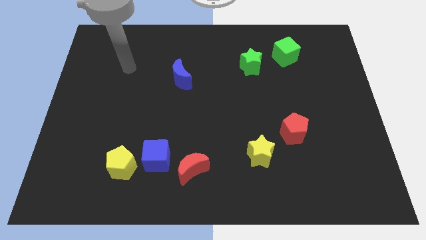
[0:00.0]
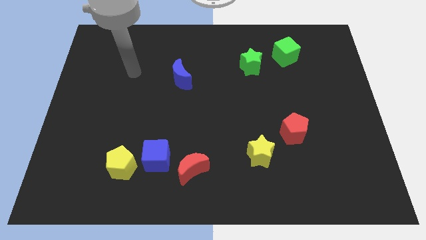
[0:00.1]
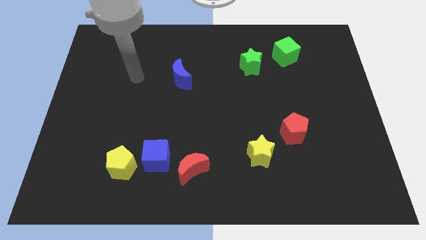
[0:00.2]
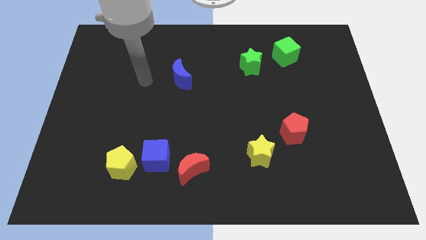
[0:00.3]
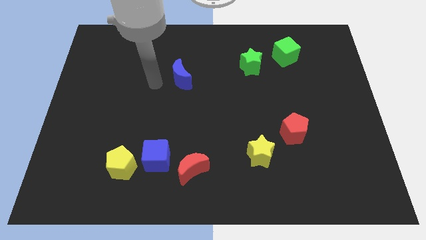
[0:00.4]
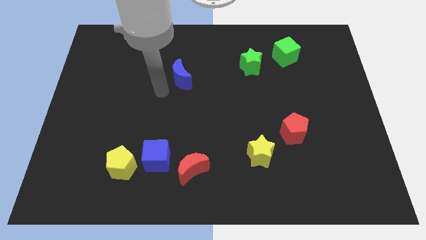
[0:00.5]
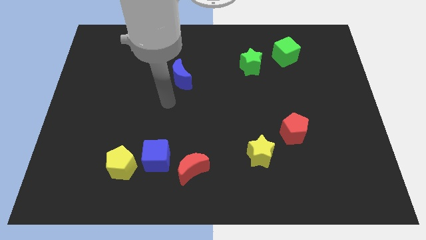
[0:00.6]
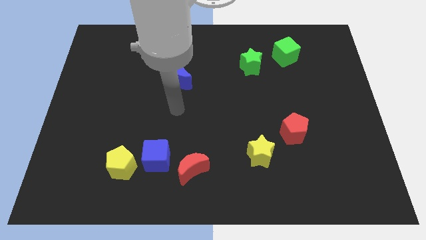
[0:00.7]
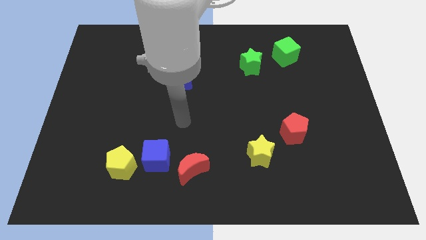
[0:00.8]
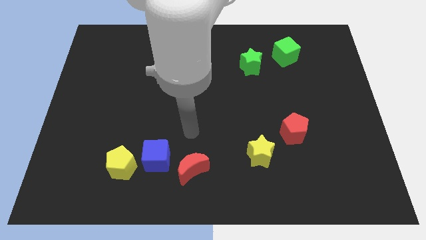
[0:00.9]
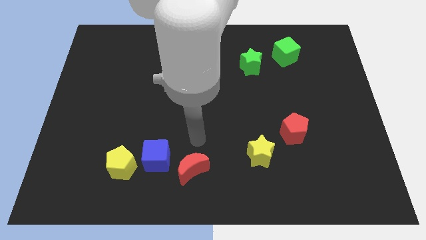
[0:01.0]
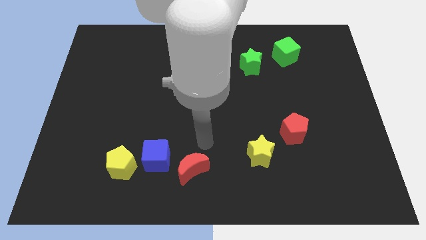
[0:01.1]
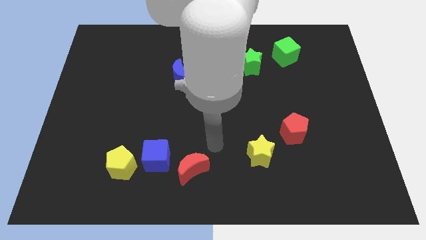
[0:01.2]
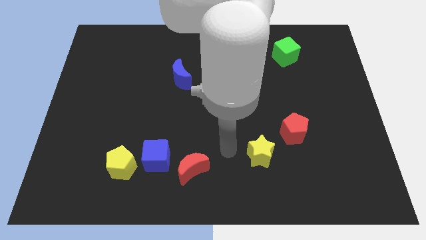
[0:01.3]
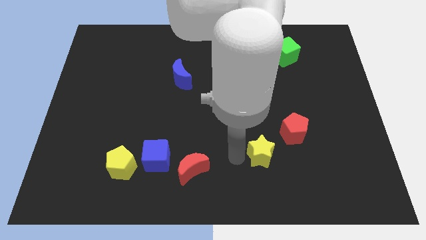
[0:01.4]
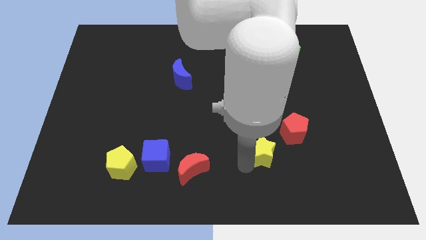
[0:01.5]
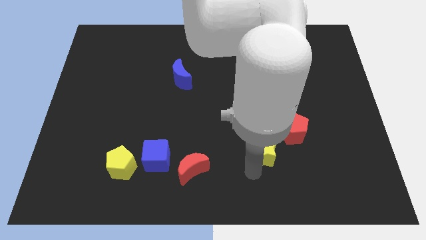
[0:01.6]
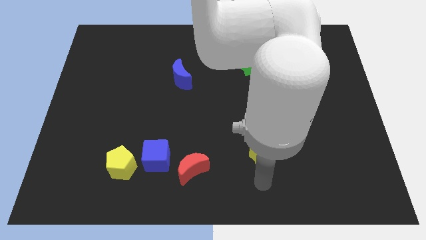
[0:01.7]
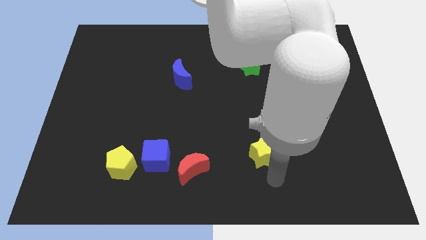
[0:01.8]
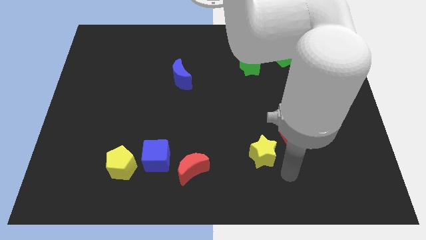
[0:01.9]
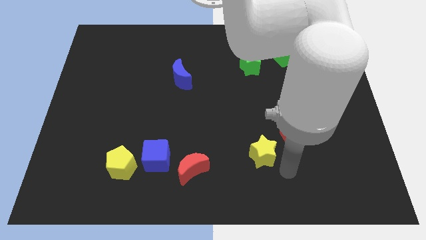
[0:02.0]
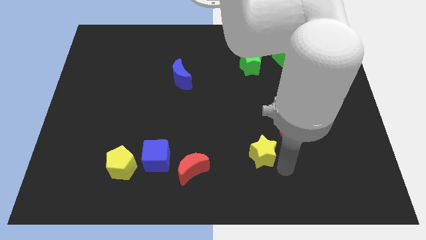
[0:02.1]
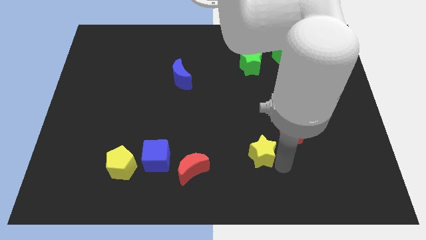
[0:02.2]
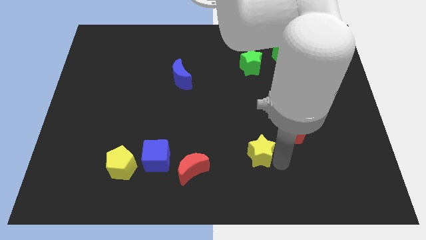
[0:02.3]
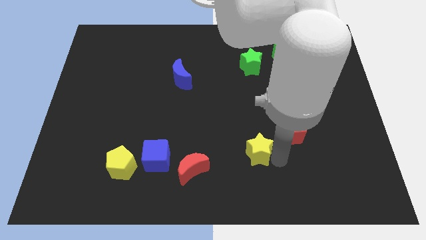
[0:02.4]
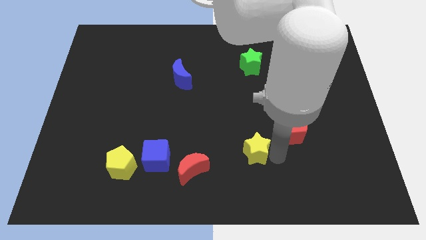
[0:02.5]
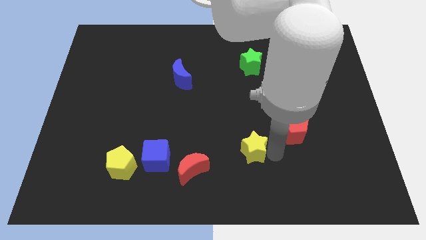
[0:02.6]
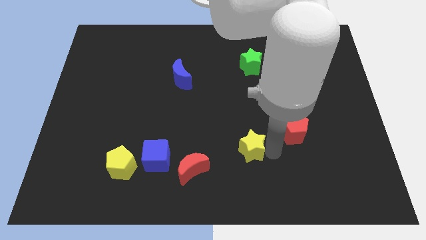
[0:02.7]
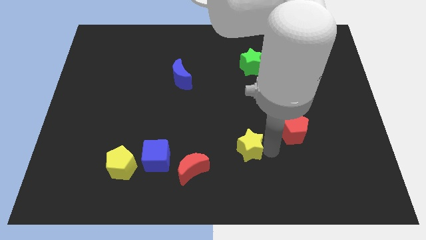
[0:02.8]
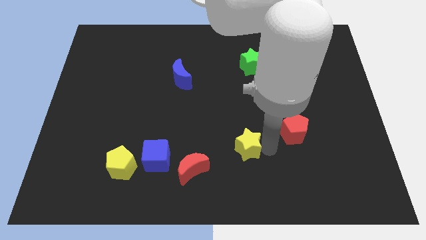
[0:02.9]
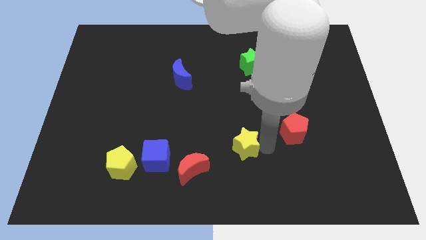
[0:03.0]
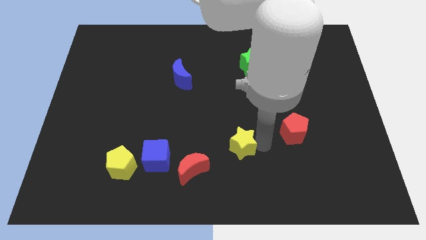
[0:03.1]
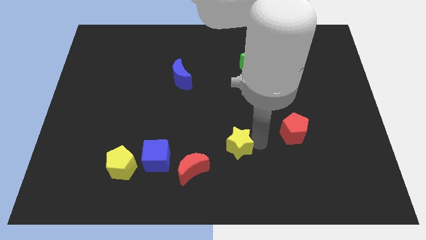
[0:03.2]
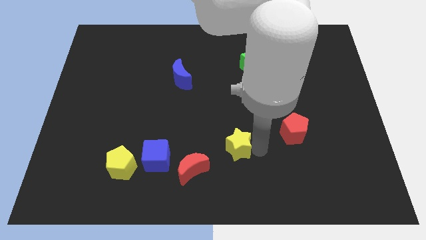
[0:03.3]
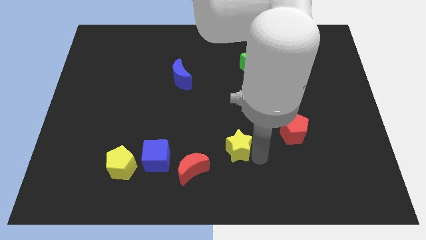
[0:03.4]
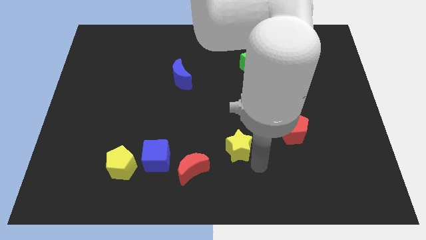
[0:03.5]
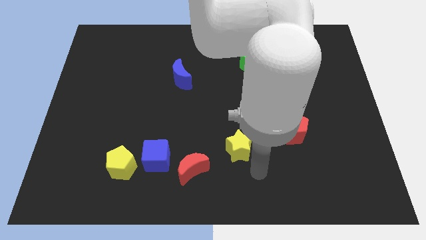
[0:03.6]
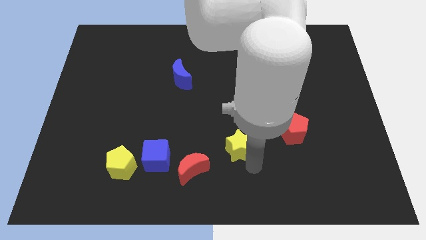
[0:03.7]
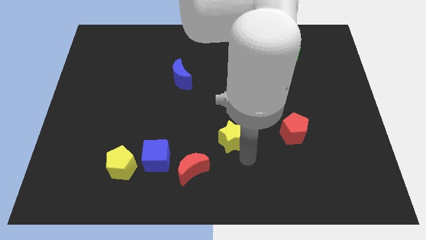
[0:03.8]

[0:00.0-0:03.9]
slightly move the yellow star upwards and left

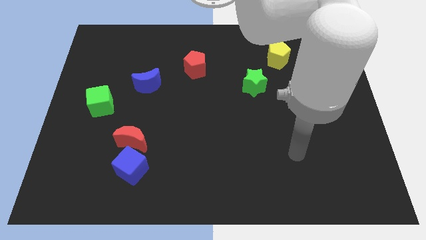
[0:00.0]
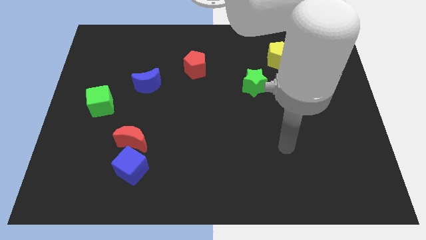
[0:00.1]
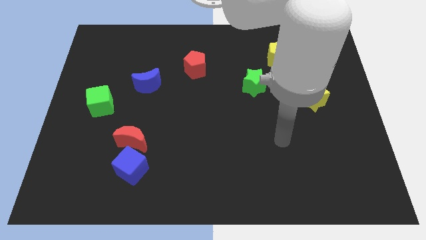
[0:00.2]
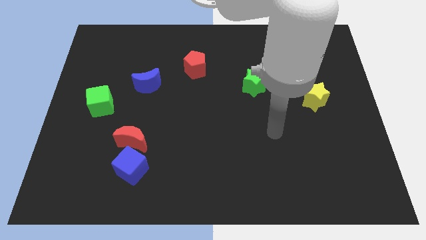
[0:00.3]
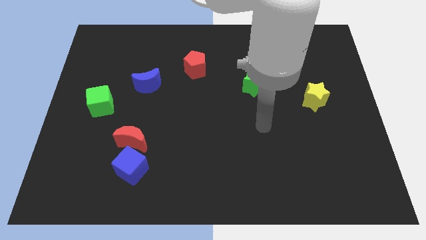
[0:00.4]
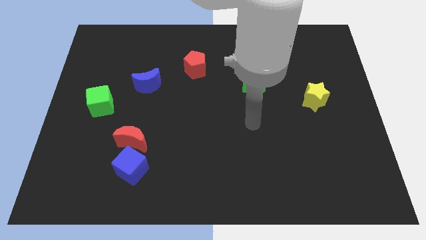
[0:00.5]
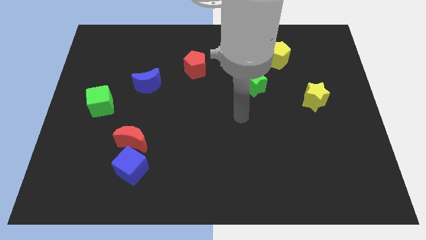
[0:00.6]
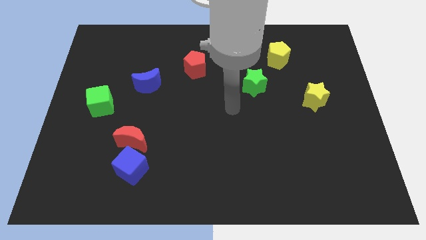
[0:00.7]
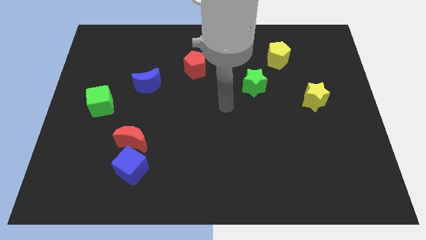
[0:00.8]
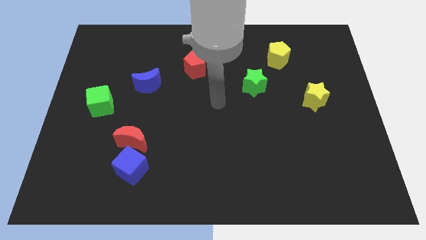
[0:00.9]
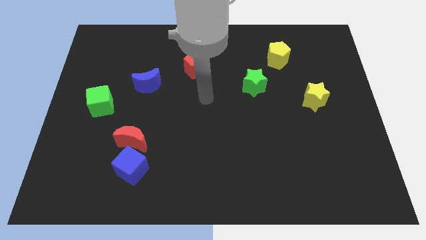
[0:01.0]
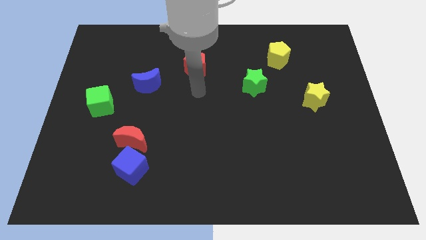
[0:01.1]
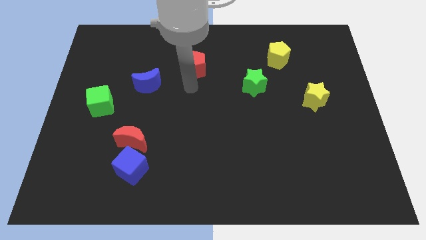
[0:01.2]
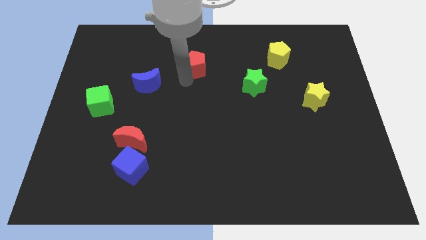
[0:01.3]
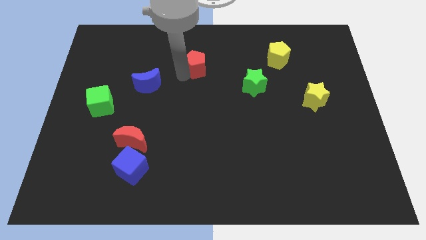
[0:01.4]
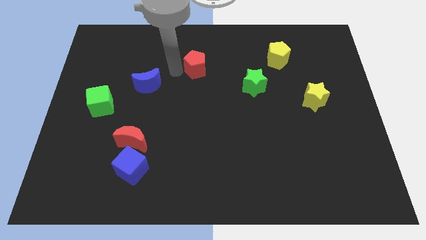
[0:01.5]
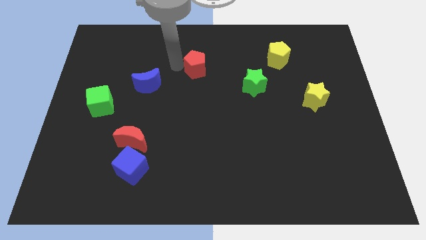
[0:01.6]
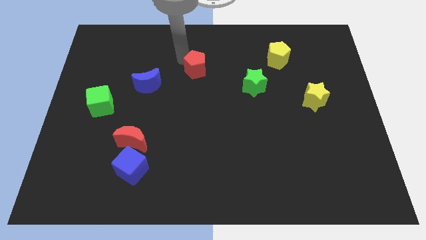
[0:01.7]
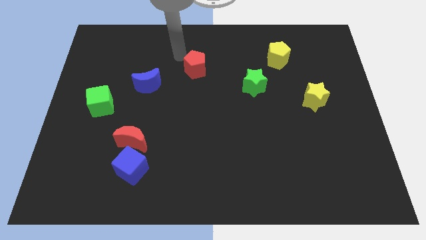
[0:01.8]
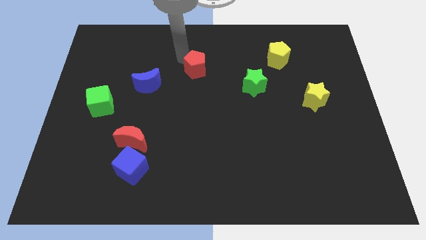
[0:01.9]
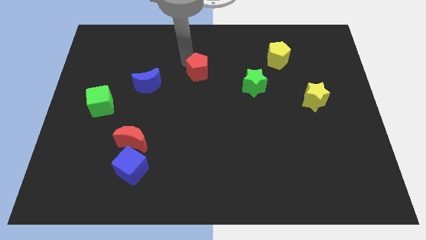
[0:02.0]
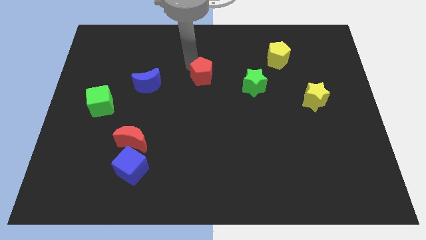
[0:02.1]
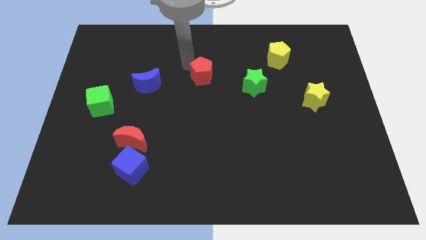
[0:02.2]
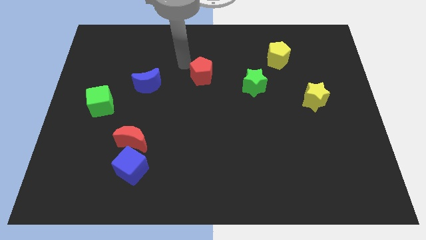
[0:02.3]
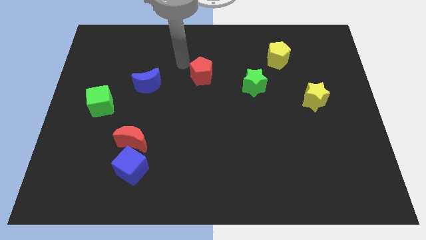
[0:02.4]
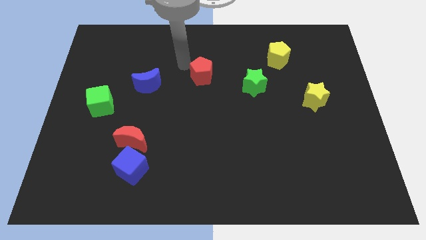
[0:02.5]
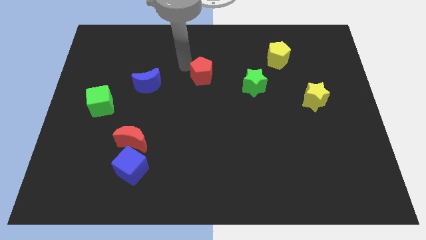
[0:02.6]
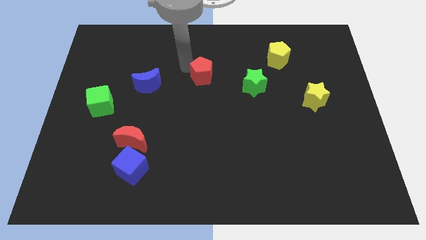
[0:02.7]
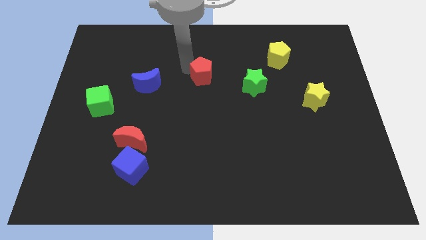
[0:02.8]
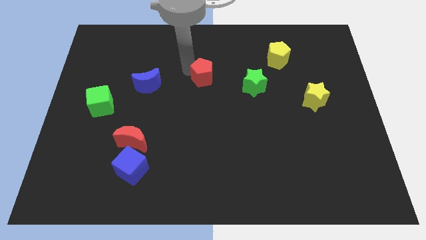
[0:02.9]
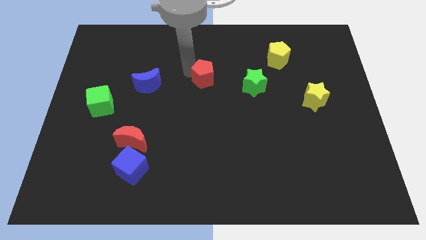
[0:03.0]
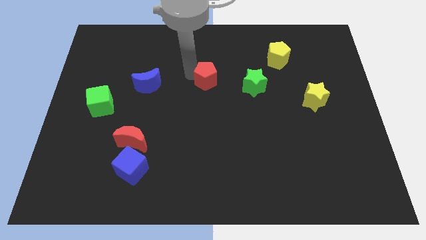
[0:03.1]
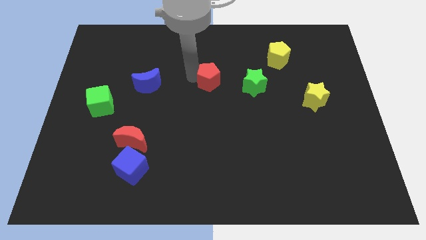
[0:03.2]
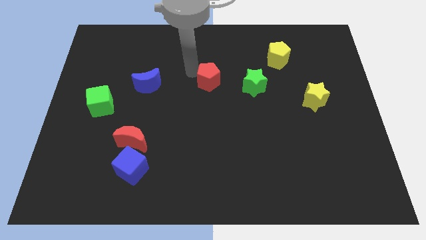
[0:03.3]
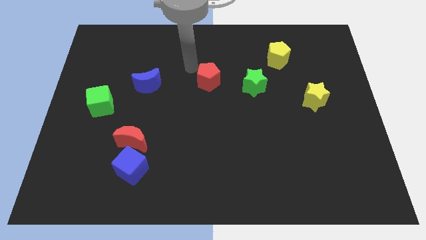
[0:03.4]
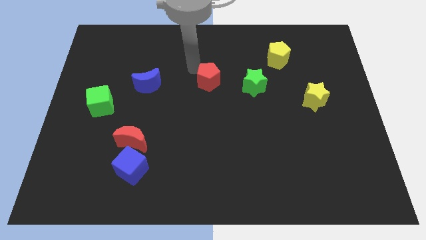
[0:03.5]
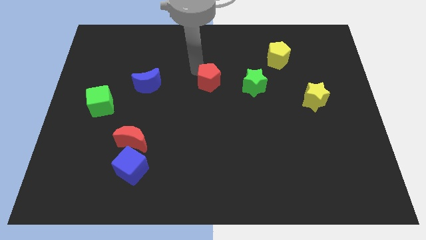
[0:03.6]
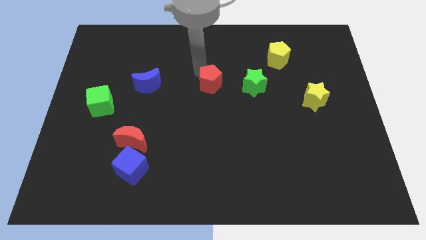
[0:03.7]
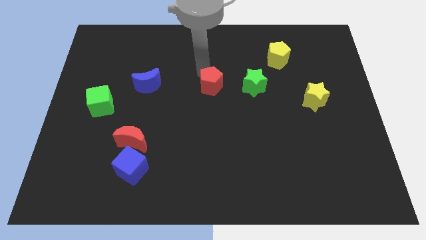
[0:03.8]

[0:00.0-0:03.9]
slightly slide the red pentagon down and right

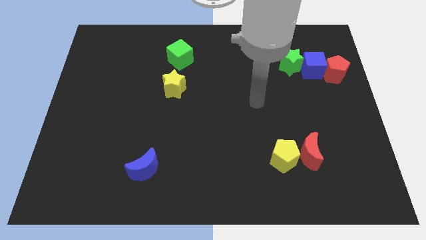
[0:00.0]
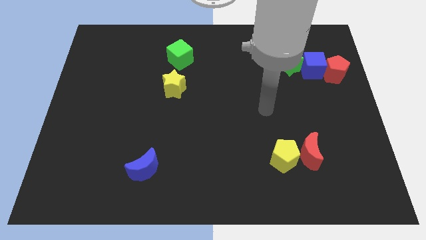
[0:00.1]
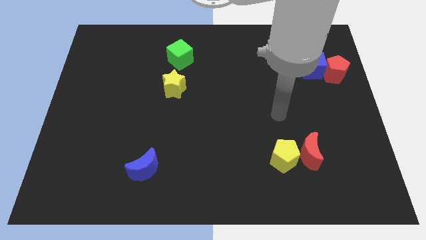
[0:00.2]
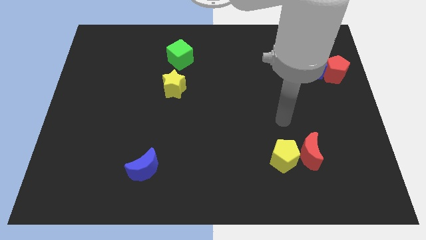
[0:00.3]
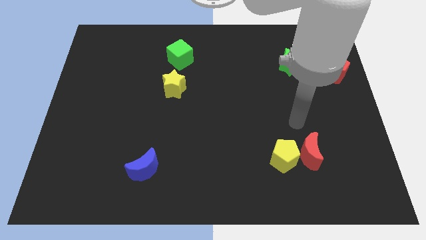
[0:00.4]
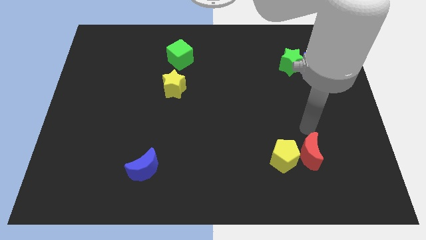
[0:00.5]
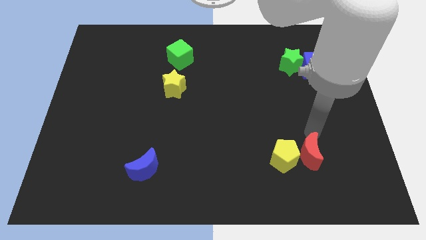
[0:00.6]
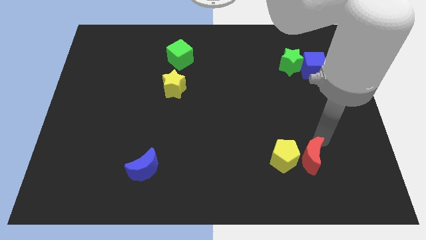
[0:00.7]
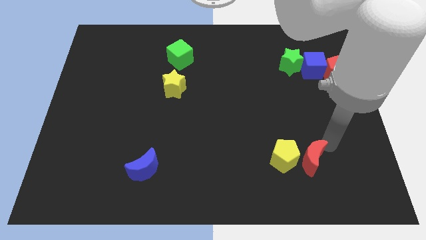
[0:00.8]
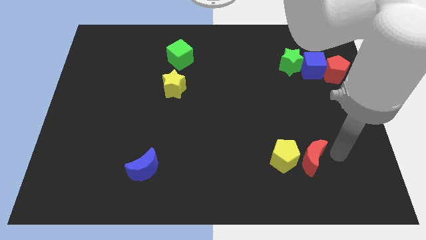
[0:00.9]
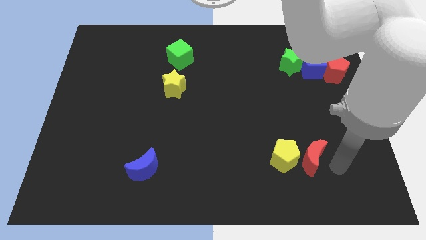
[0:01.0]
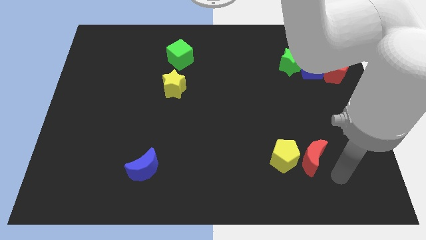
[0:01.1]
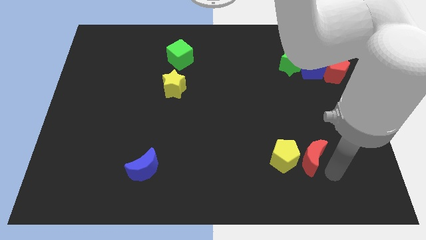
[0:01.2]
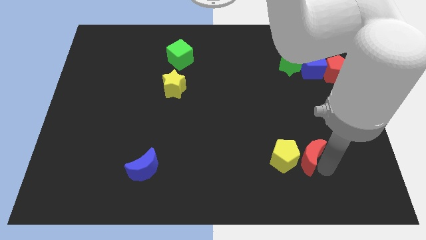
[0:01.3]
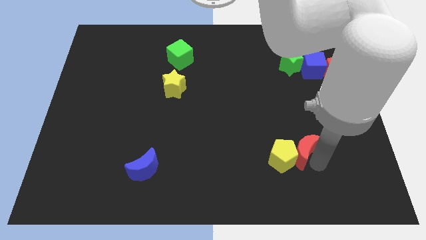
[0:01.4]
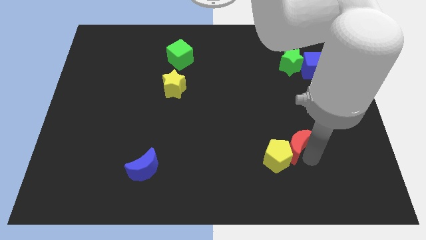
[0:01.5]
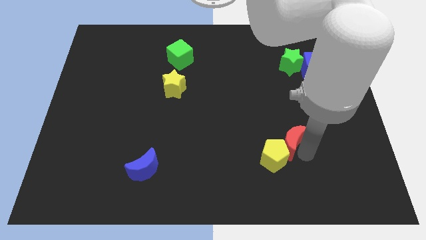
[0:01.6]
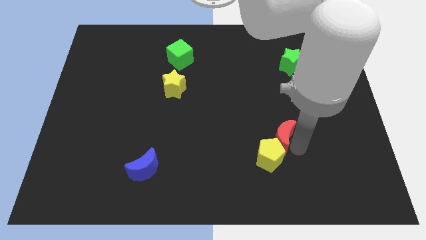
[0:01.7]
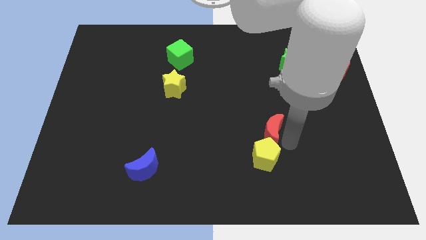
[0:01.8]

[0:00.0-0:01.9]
move the red moon a little up and to the left diagonally
